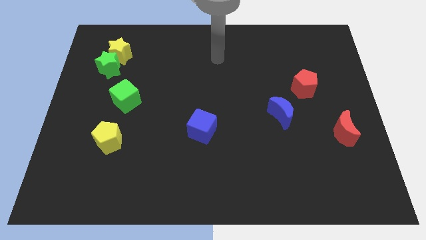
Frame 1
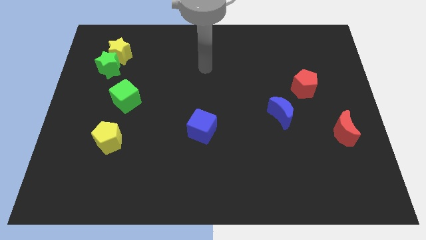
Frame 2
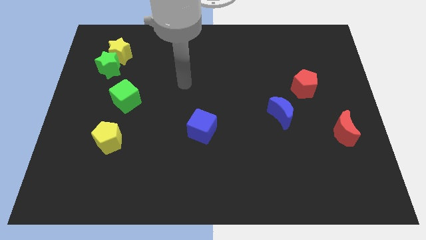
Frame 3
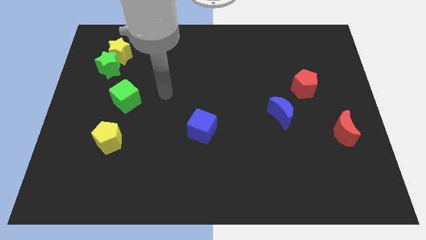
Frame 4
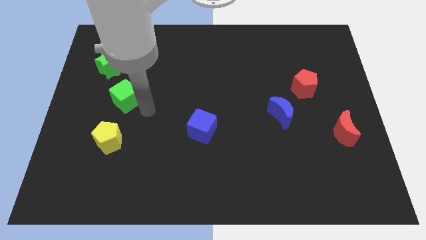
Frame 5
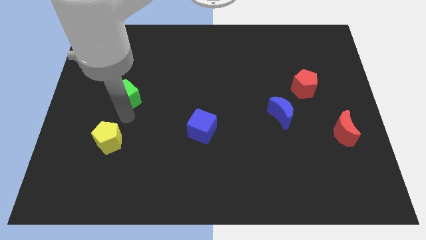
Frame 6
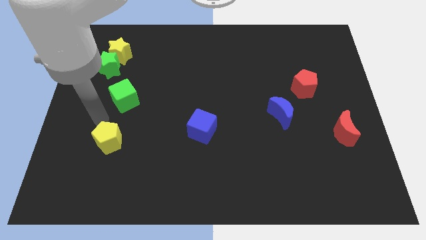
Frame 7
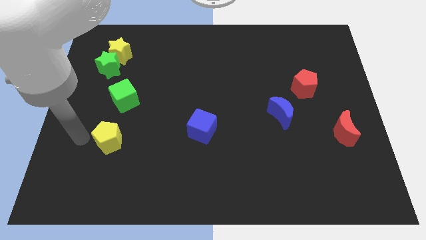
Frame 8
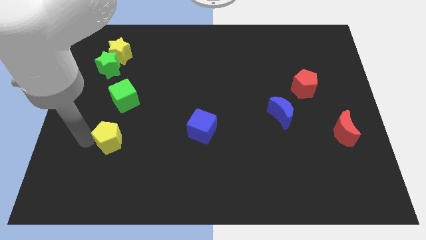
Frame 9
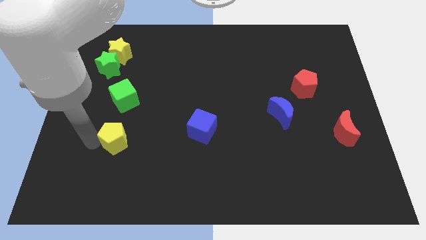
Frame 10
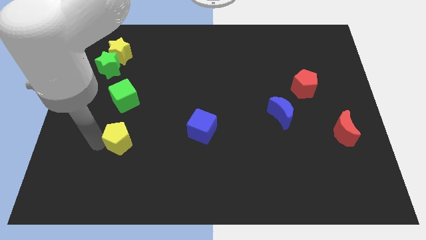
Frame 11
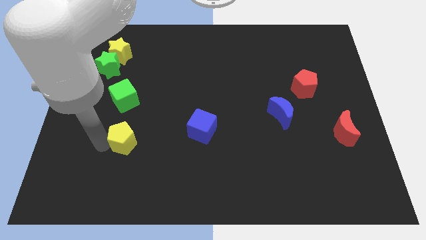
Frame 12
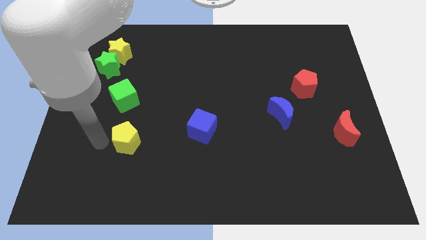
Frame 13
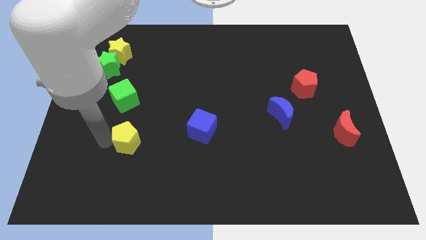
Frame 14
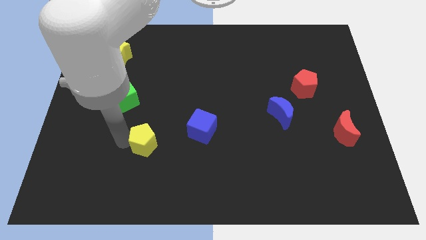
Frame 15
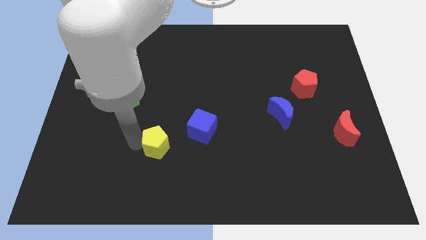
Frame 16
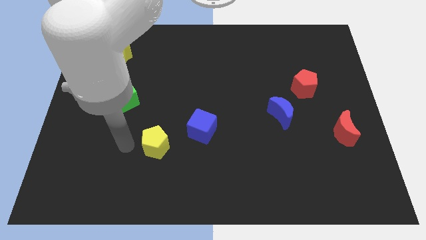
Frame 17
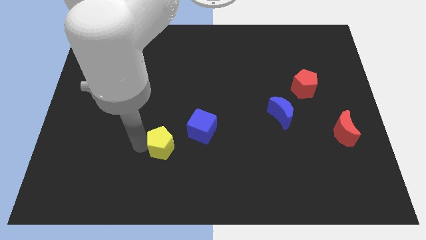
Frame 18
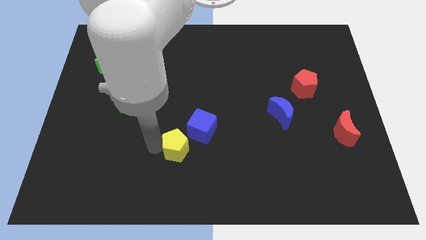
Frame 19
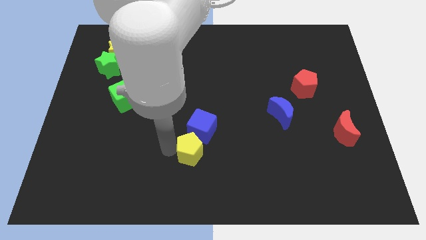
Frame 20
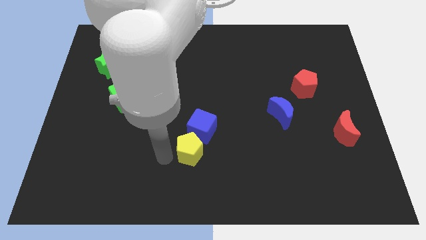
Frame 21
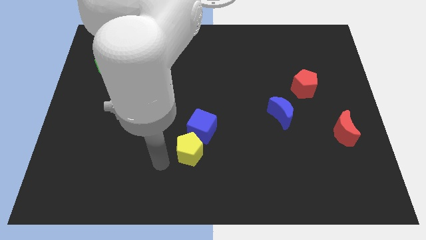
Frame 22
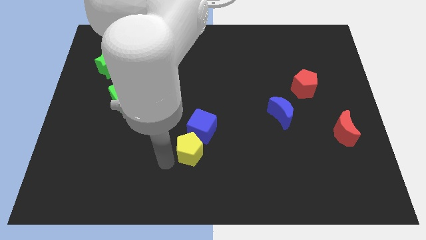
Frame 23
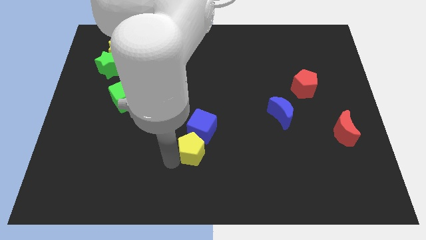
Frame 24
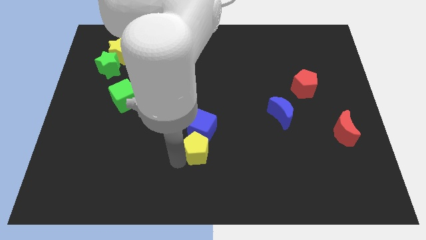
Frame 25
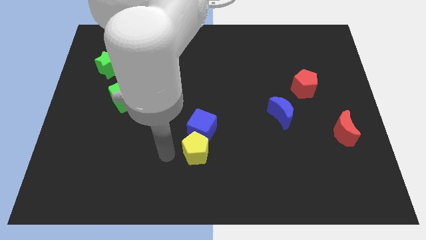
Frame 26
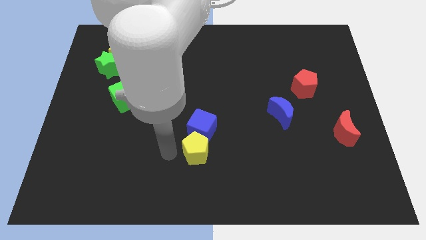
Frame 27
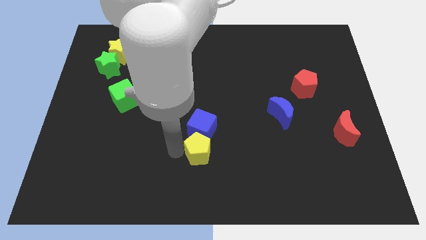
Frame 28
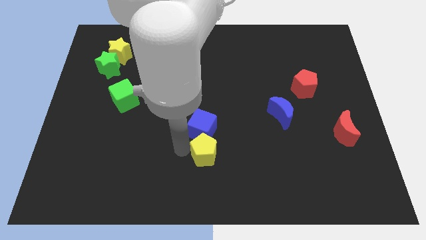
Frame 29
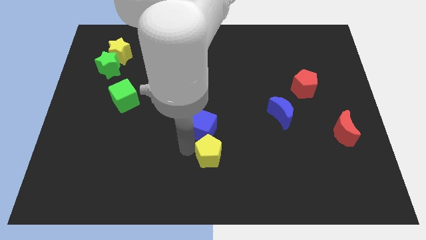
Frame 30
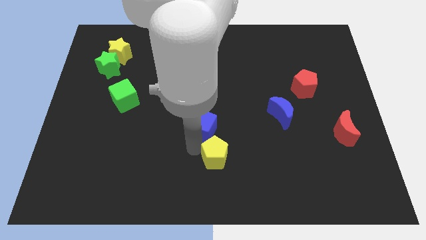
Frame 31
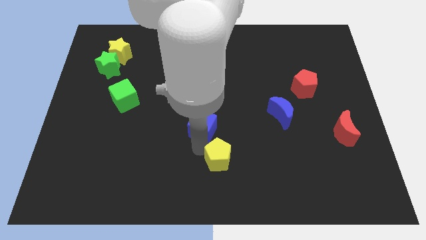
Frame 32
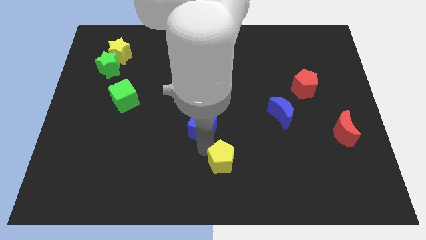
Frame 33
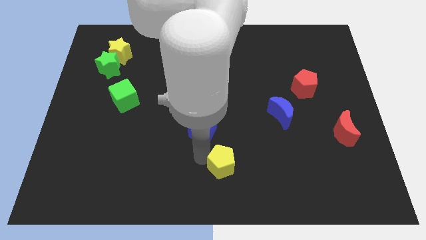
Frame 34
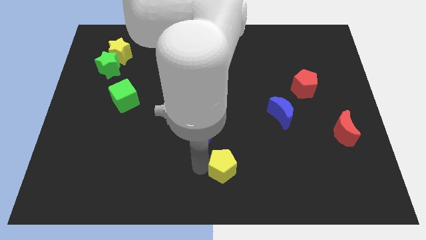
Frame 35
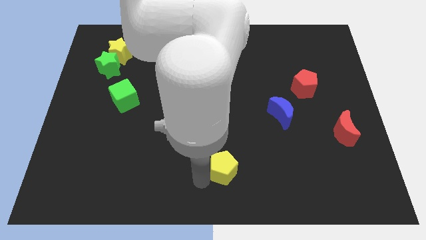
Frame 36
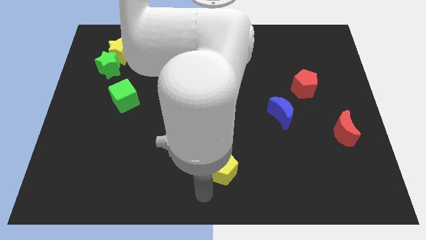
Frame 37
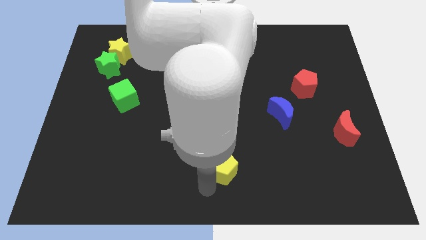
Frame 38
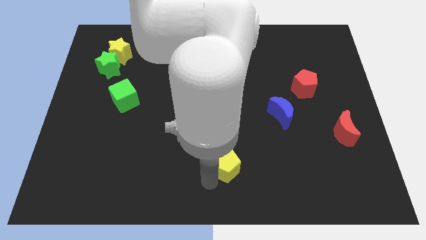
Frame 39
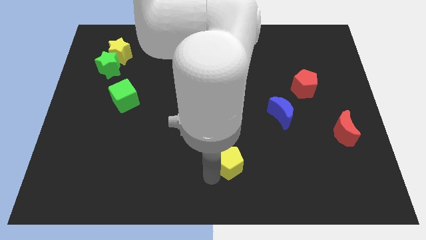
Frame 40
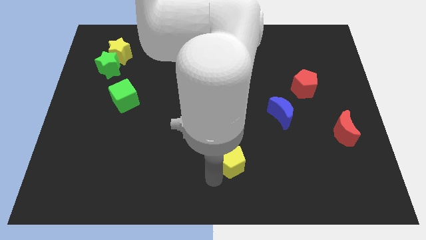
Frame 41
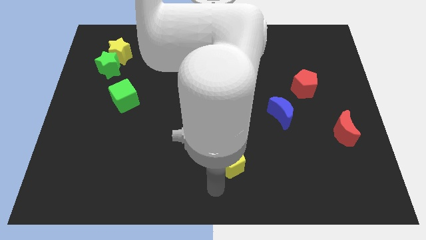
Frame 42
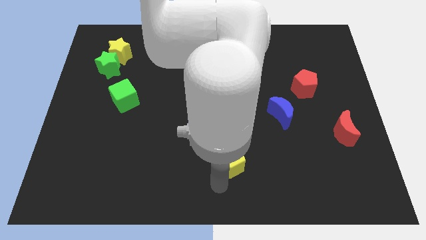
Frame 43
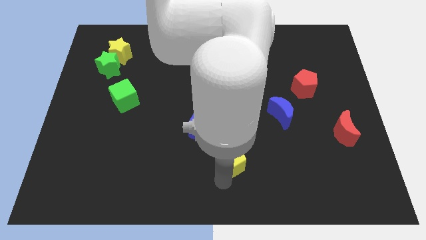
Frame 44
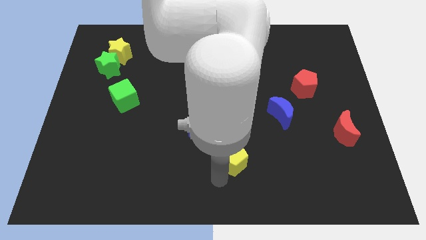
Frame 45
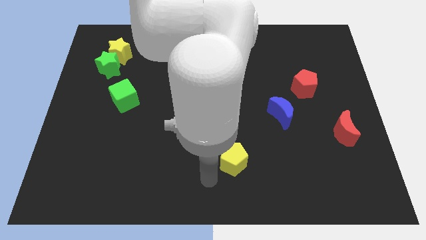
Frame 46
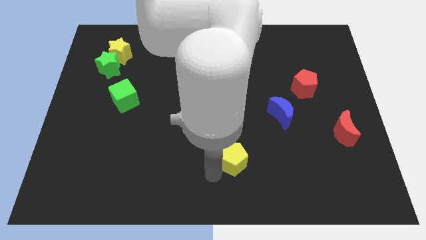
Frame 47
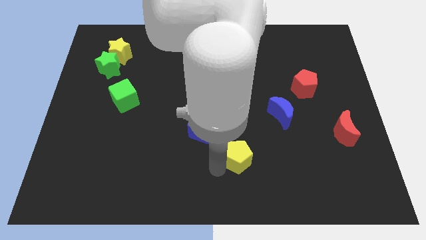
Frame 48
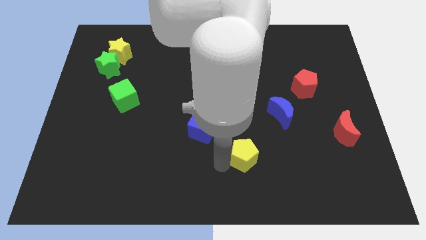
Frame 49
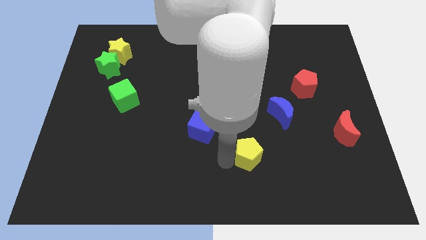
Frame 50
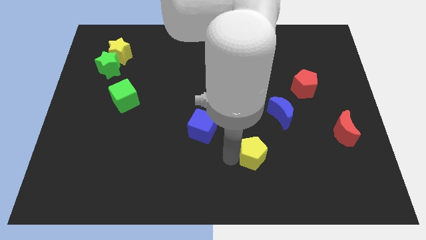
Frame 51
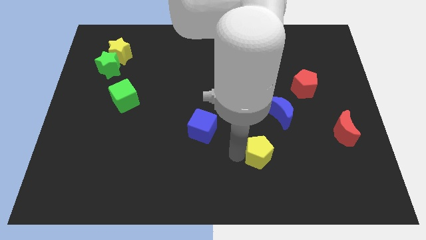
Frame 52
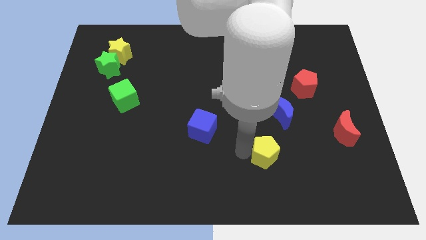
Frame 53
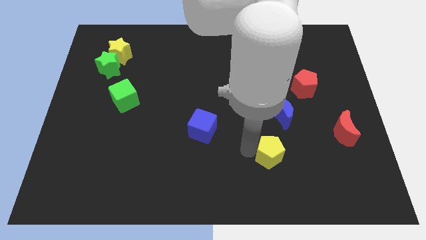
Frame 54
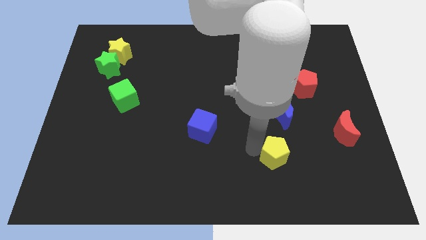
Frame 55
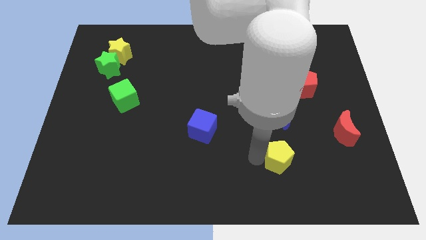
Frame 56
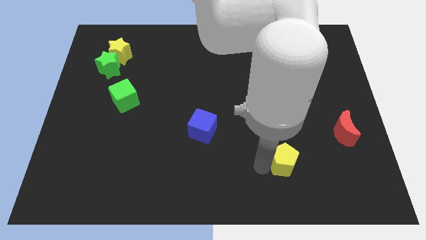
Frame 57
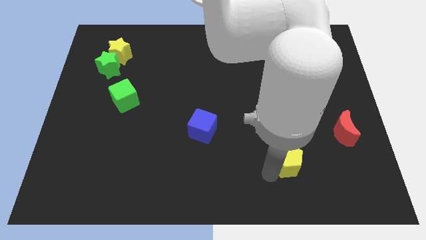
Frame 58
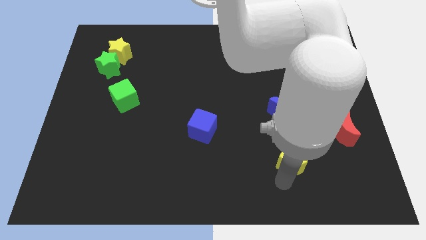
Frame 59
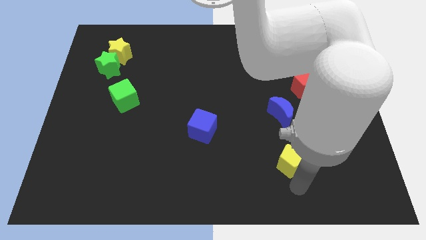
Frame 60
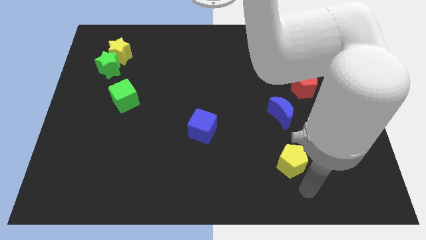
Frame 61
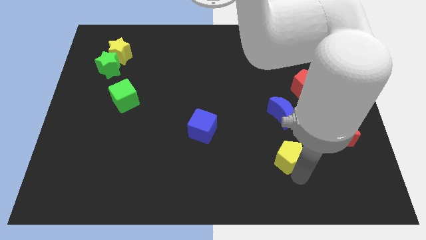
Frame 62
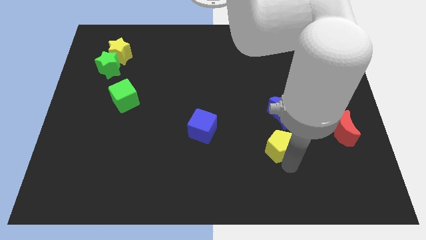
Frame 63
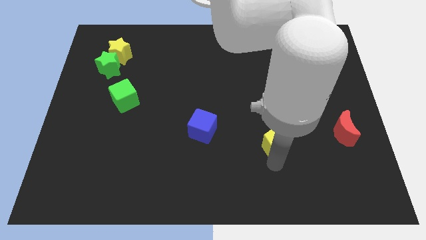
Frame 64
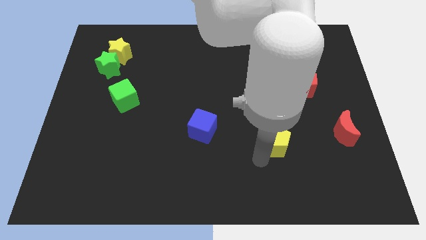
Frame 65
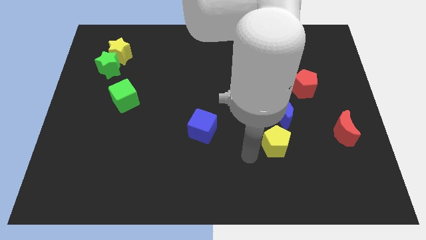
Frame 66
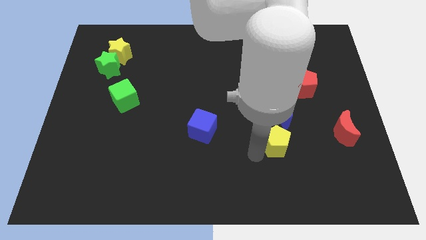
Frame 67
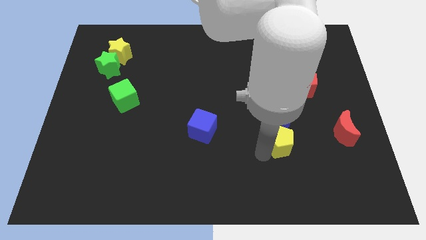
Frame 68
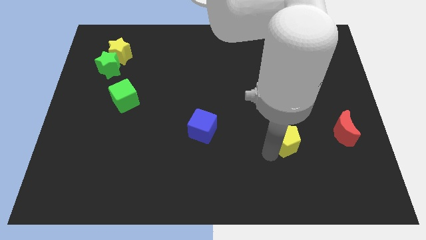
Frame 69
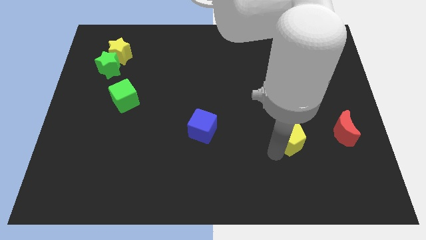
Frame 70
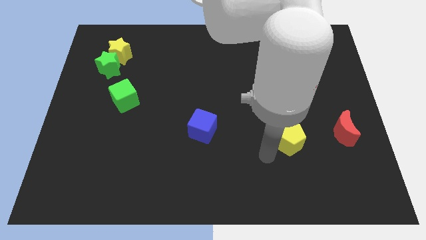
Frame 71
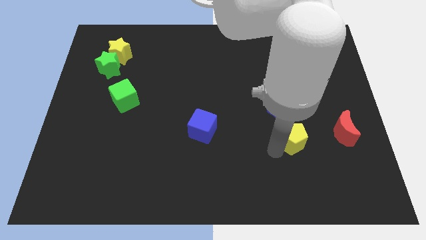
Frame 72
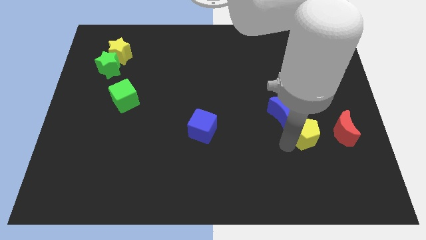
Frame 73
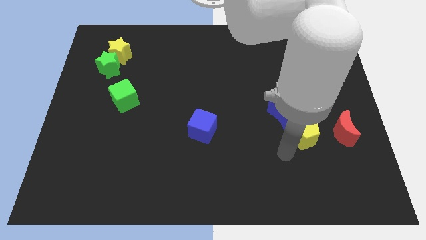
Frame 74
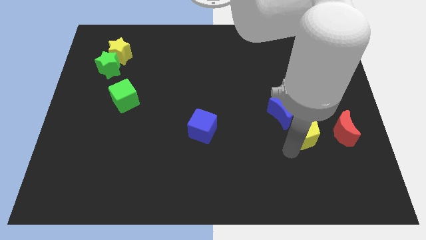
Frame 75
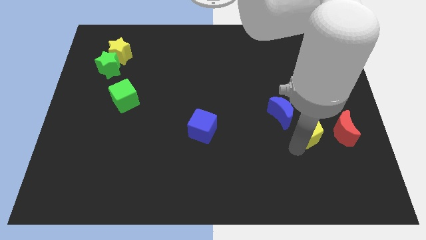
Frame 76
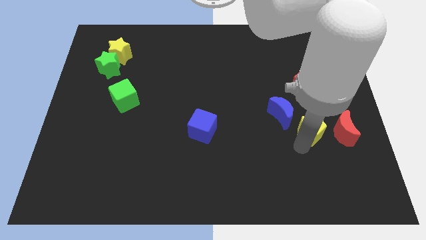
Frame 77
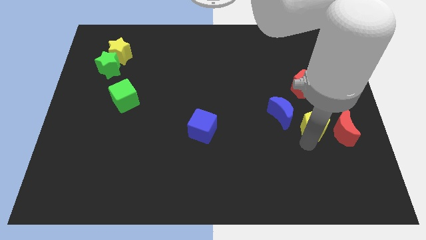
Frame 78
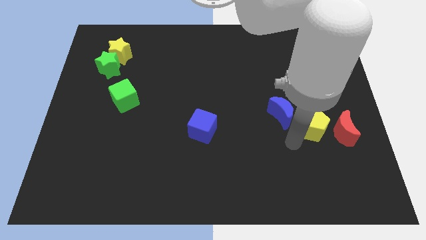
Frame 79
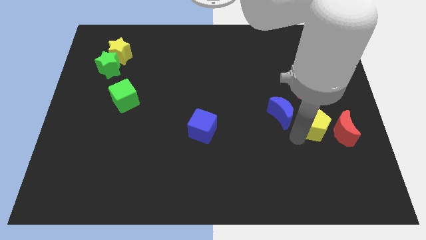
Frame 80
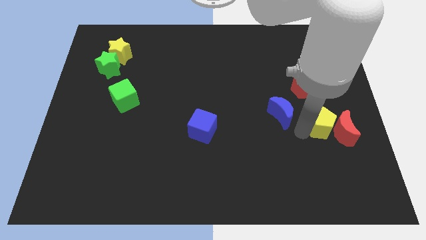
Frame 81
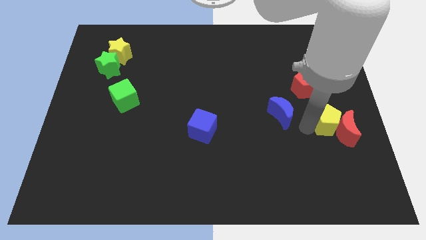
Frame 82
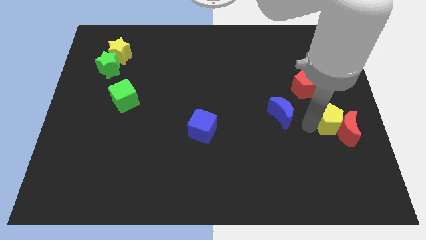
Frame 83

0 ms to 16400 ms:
slide the yellow pentagon to the right side of the board
